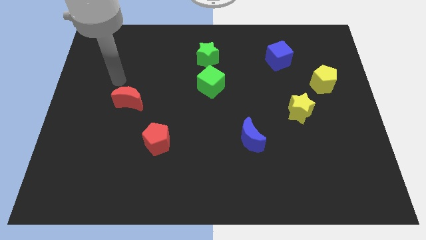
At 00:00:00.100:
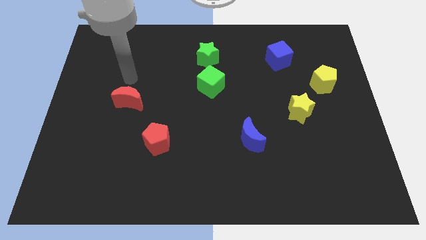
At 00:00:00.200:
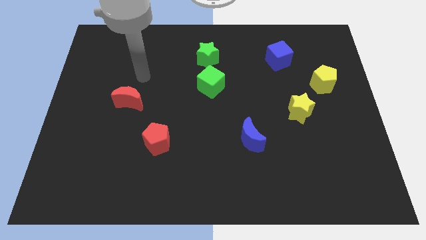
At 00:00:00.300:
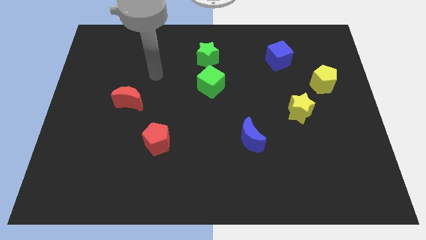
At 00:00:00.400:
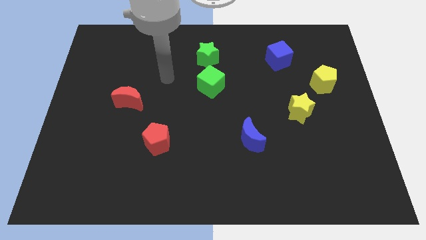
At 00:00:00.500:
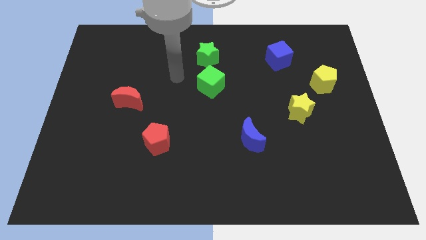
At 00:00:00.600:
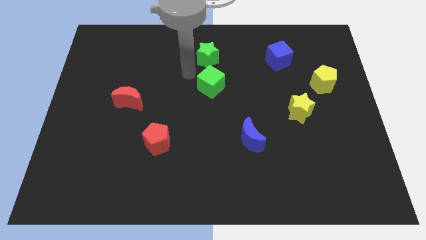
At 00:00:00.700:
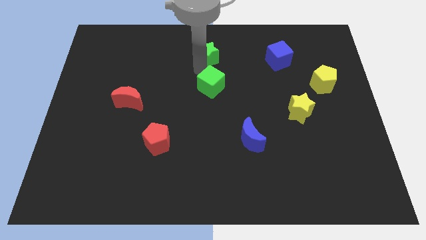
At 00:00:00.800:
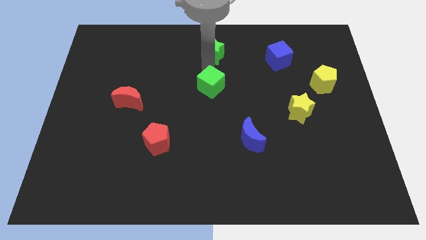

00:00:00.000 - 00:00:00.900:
separate the green cube from the green star

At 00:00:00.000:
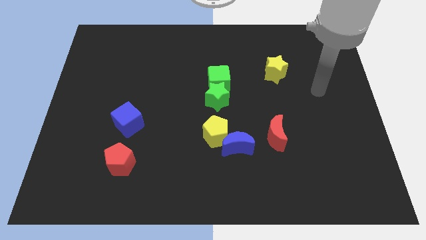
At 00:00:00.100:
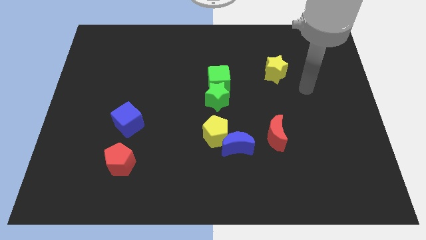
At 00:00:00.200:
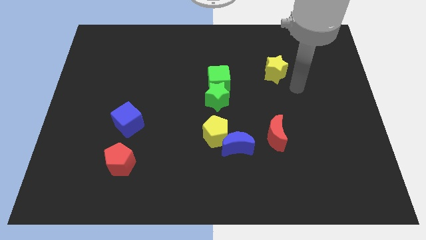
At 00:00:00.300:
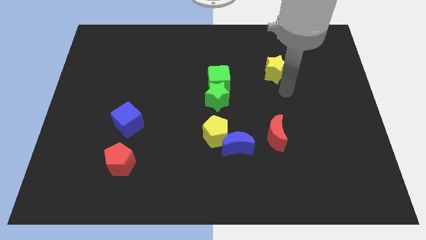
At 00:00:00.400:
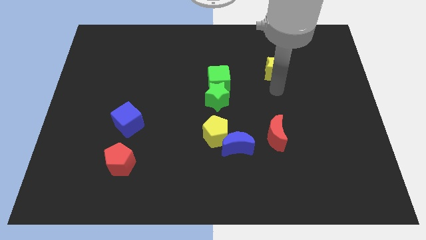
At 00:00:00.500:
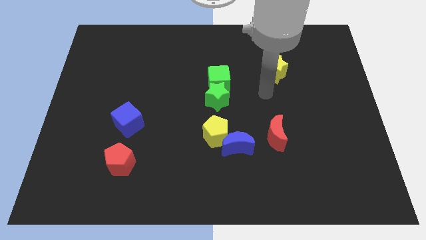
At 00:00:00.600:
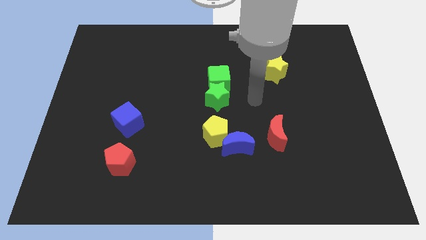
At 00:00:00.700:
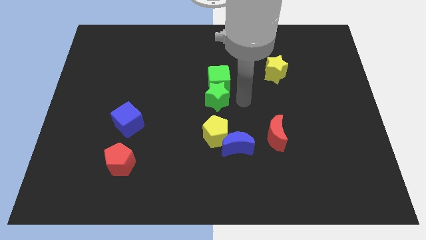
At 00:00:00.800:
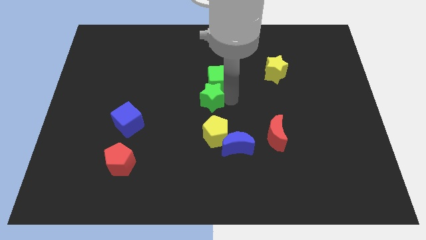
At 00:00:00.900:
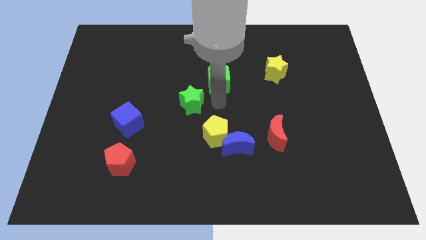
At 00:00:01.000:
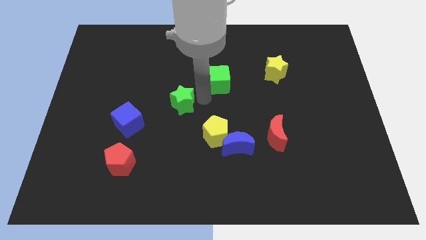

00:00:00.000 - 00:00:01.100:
move the green cube away from the green star

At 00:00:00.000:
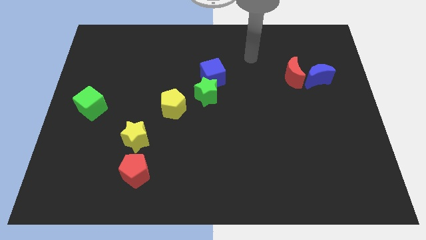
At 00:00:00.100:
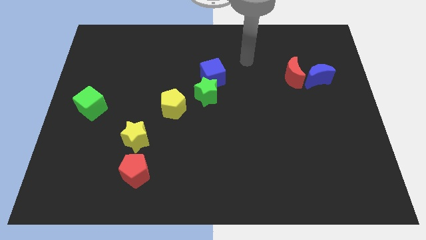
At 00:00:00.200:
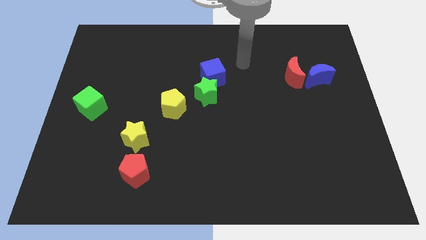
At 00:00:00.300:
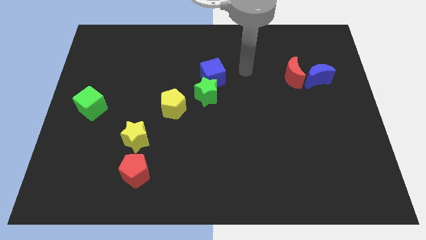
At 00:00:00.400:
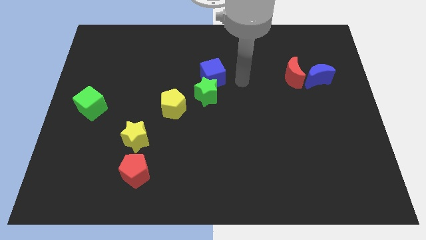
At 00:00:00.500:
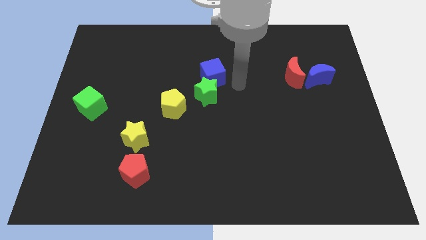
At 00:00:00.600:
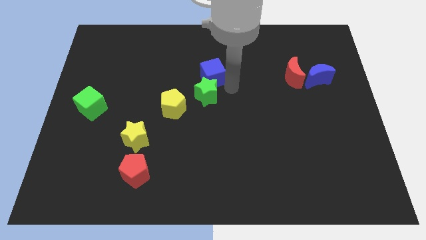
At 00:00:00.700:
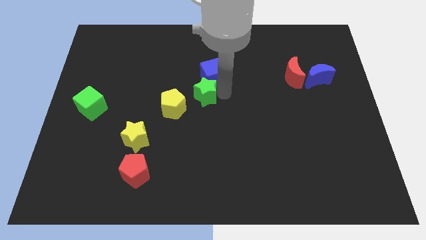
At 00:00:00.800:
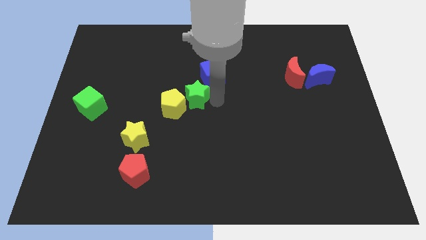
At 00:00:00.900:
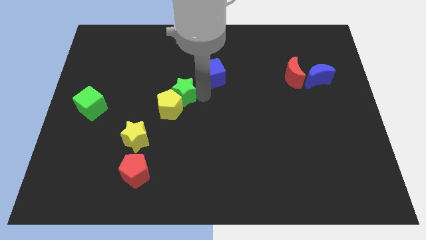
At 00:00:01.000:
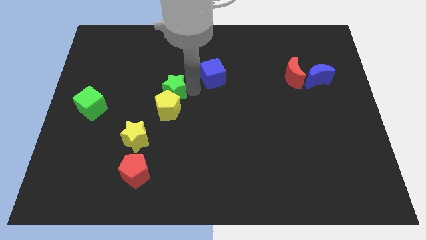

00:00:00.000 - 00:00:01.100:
separate the blue cube from the green star

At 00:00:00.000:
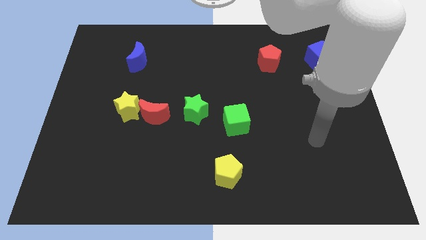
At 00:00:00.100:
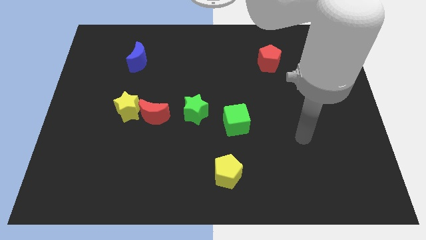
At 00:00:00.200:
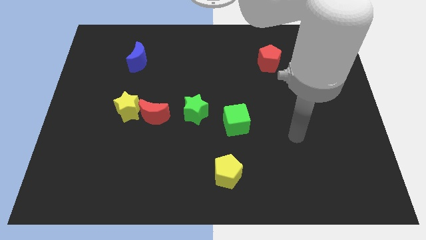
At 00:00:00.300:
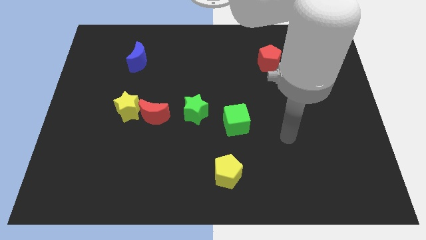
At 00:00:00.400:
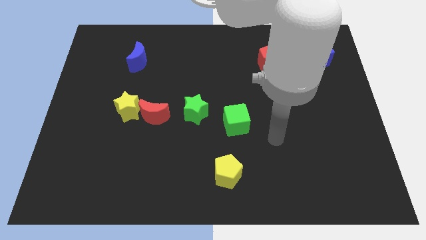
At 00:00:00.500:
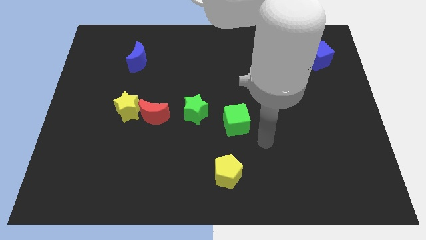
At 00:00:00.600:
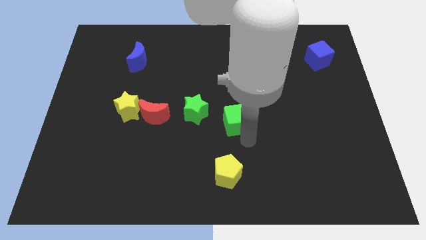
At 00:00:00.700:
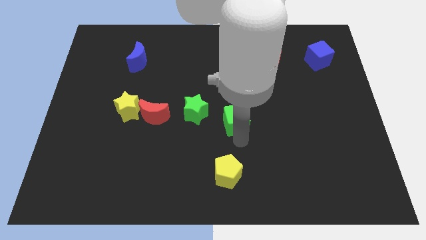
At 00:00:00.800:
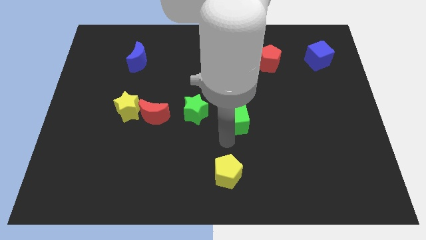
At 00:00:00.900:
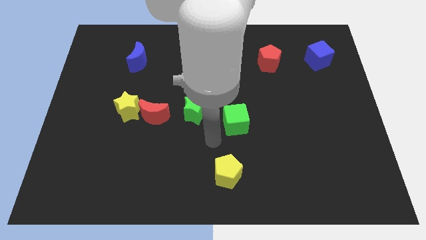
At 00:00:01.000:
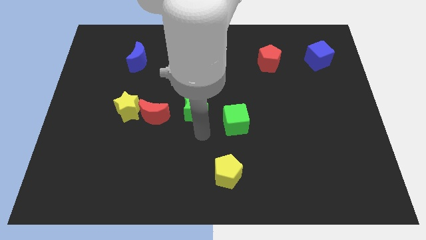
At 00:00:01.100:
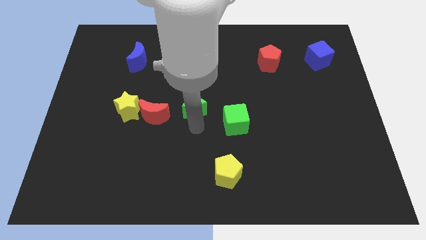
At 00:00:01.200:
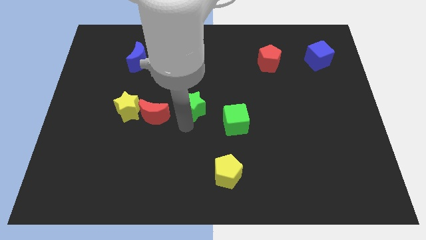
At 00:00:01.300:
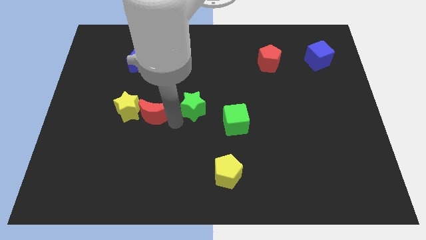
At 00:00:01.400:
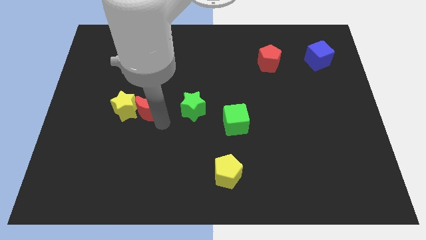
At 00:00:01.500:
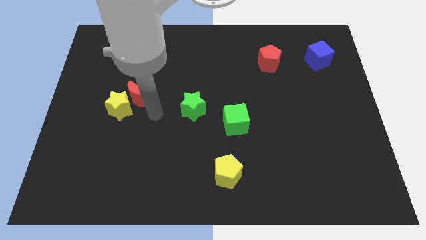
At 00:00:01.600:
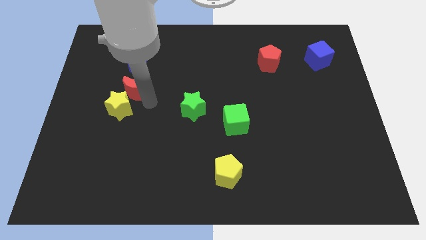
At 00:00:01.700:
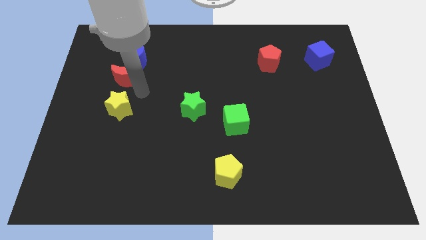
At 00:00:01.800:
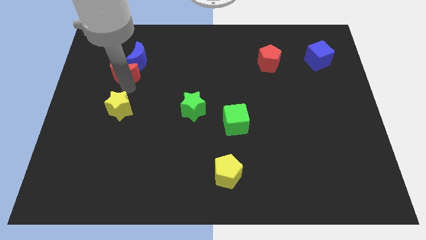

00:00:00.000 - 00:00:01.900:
pull the yellow star apart from the red moon

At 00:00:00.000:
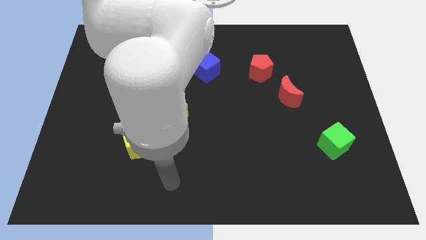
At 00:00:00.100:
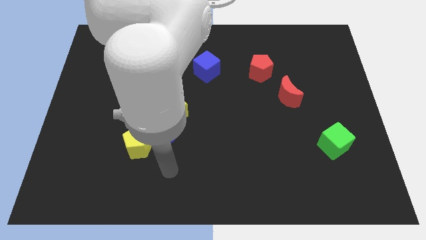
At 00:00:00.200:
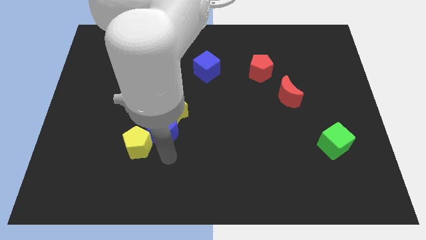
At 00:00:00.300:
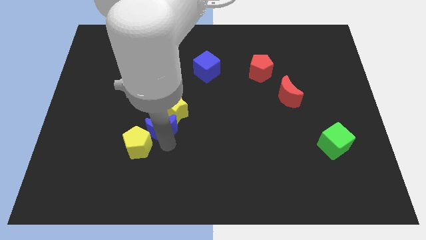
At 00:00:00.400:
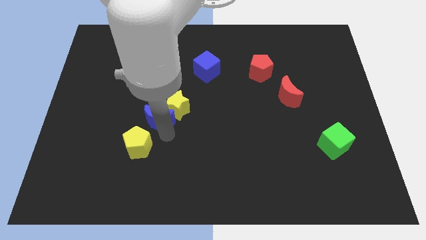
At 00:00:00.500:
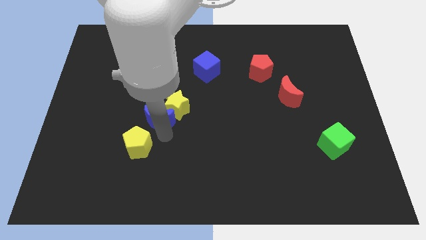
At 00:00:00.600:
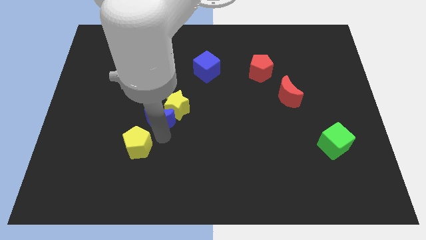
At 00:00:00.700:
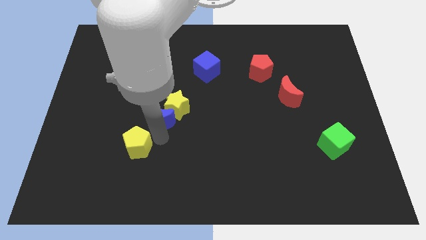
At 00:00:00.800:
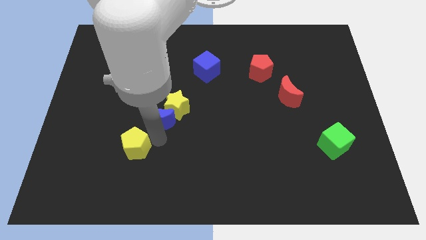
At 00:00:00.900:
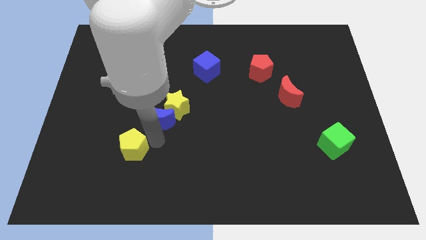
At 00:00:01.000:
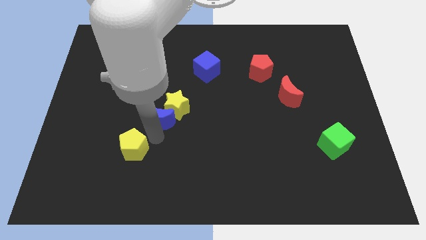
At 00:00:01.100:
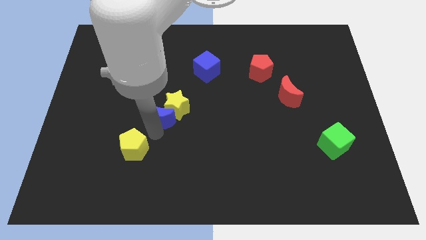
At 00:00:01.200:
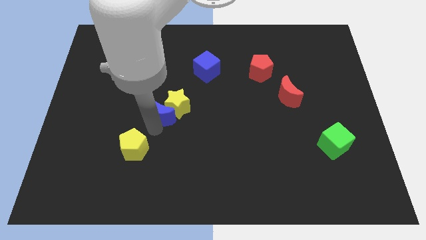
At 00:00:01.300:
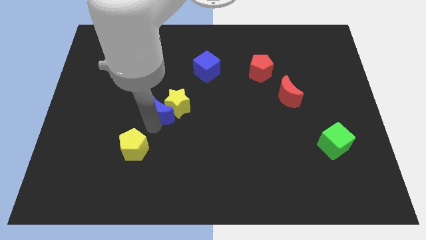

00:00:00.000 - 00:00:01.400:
separate the yellow pentagon from the blue moon

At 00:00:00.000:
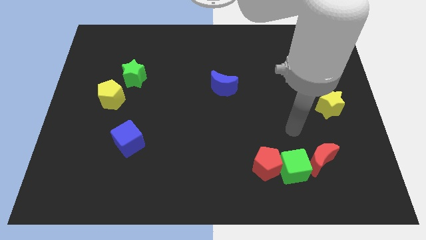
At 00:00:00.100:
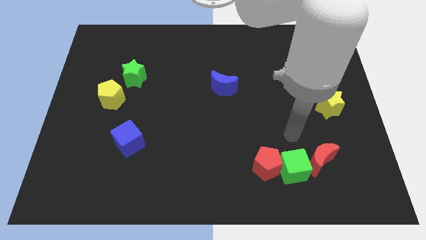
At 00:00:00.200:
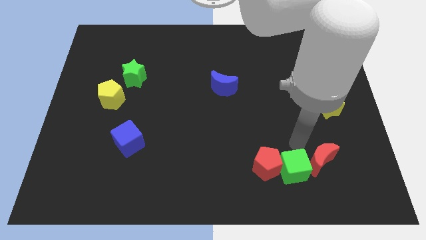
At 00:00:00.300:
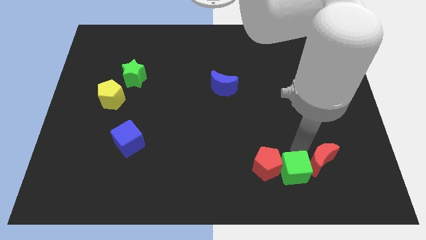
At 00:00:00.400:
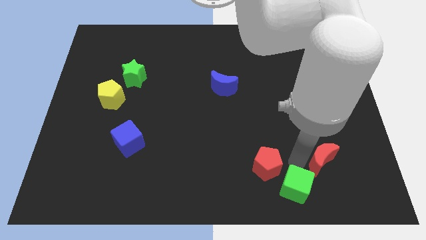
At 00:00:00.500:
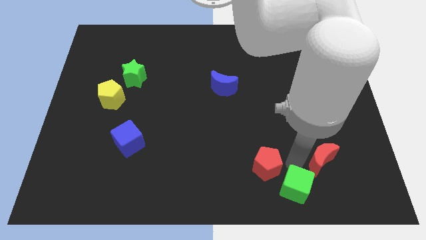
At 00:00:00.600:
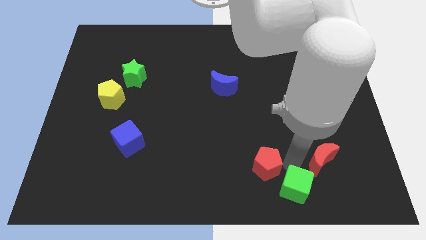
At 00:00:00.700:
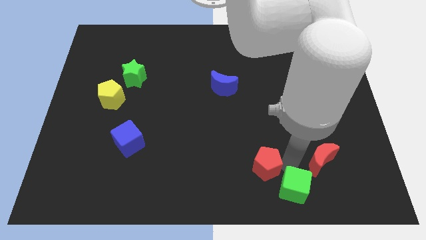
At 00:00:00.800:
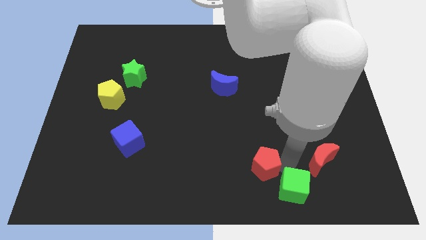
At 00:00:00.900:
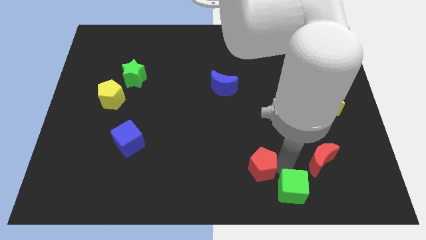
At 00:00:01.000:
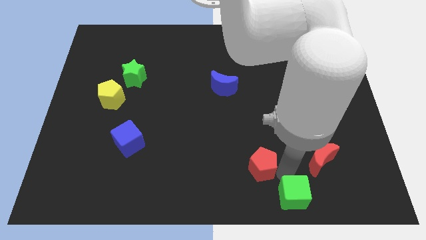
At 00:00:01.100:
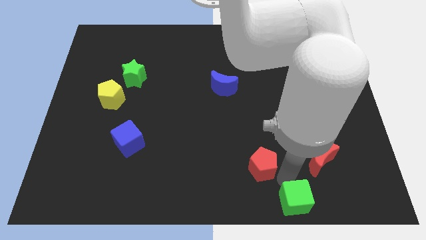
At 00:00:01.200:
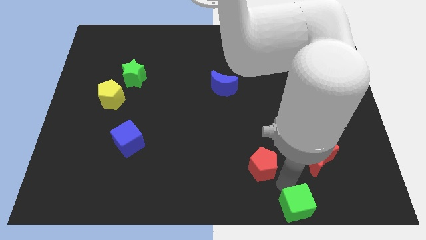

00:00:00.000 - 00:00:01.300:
pull the red pentagon apart from the green cube

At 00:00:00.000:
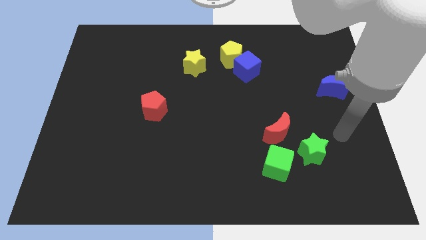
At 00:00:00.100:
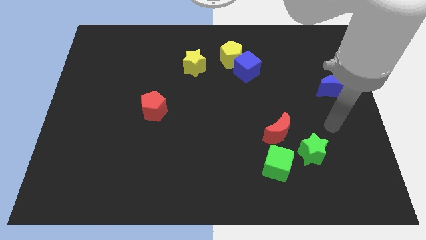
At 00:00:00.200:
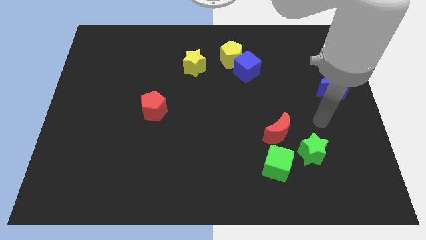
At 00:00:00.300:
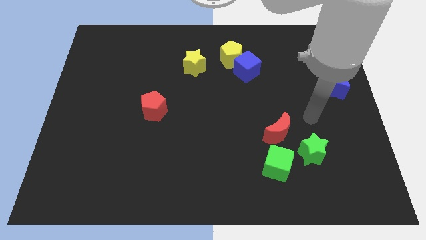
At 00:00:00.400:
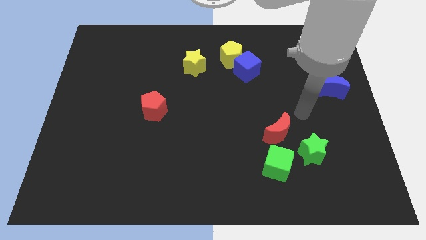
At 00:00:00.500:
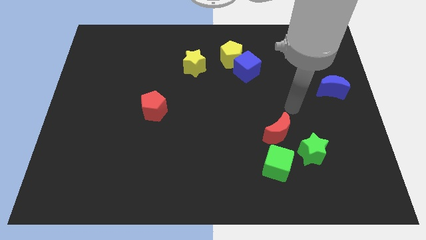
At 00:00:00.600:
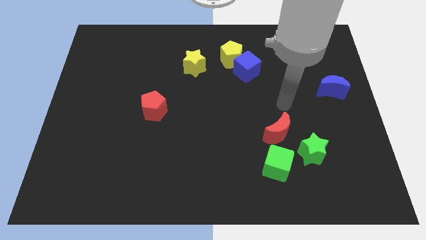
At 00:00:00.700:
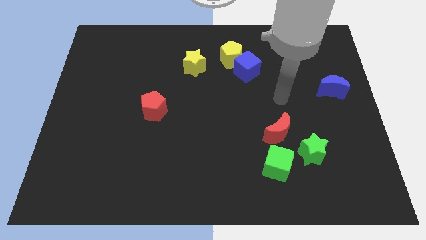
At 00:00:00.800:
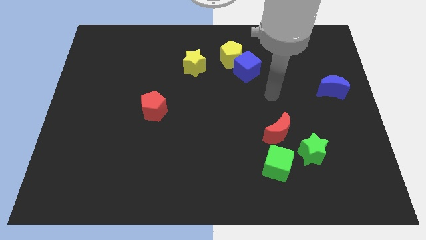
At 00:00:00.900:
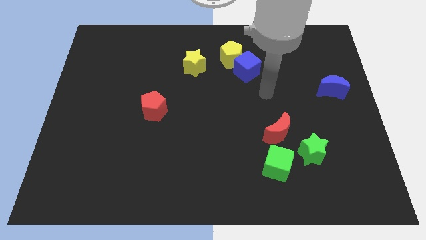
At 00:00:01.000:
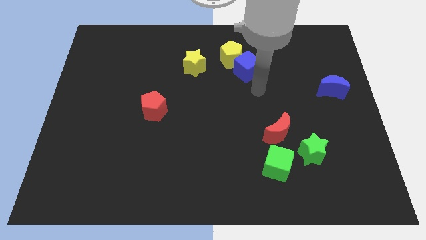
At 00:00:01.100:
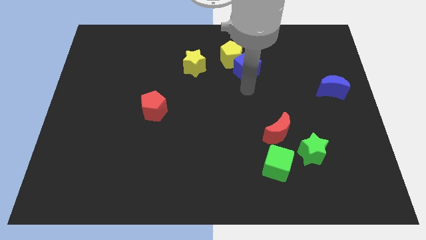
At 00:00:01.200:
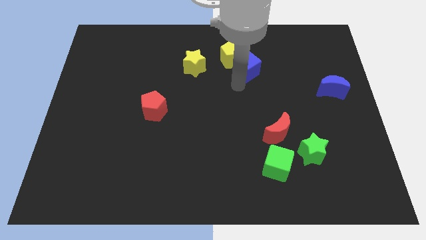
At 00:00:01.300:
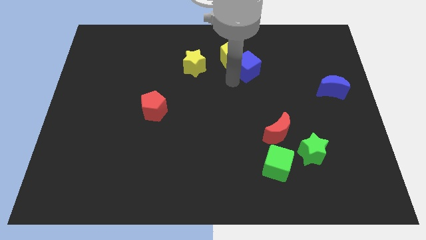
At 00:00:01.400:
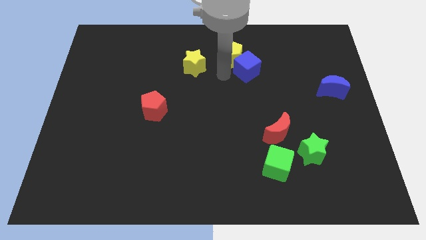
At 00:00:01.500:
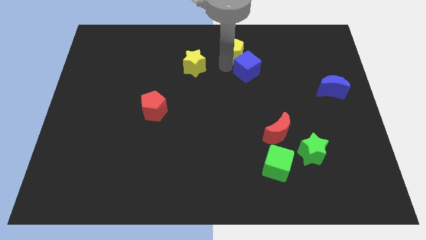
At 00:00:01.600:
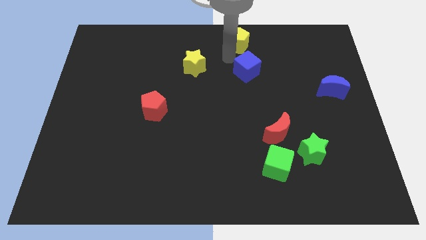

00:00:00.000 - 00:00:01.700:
separate the blue cube from the yellow pentagon
